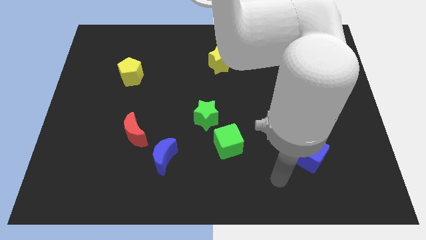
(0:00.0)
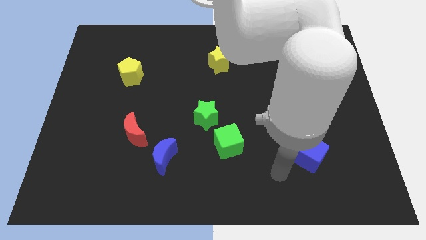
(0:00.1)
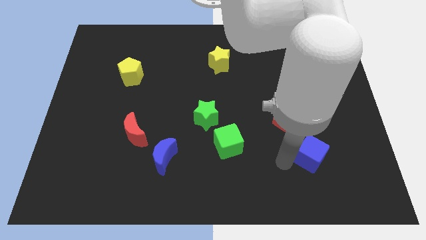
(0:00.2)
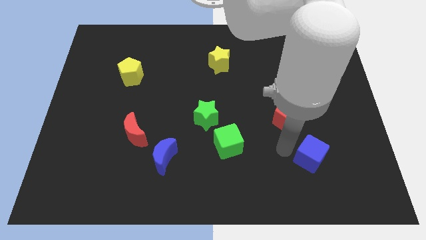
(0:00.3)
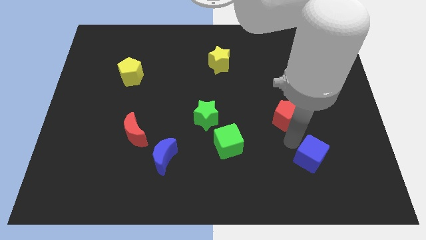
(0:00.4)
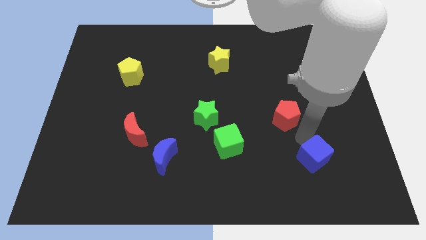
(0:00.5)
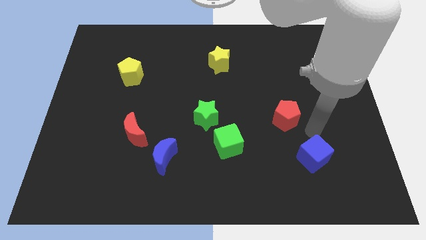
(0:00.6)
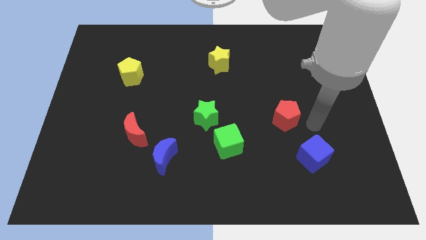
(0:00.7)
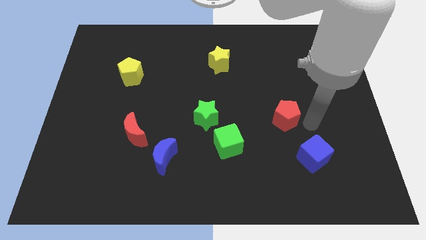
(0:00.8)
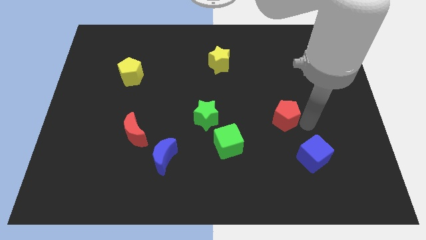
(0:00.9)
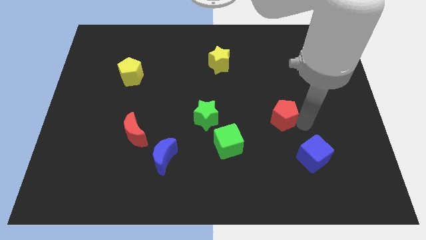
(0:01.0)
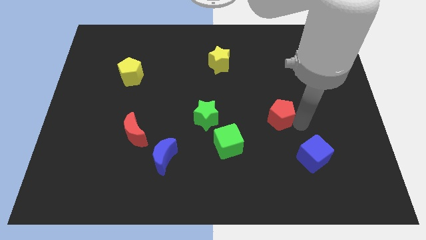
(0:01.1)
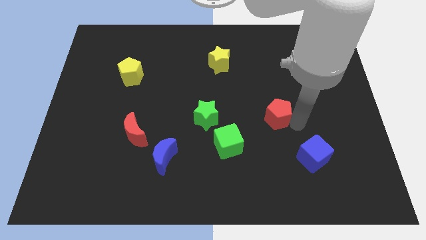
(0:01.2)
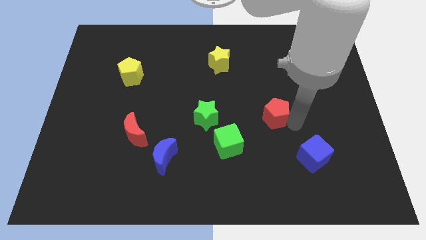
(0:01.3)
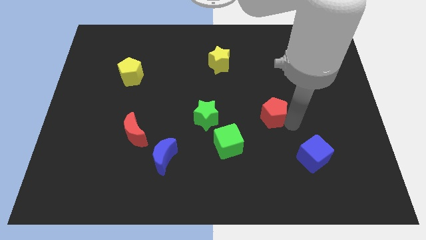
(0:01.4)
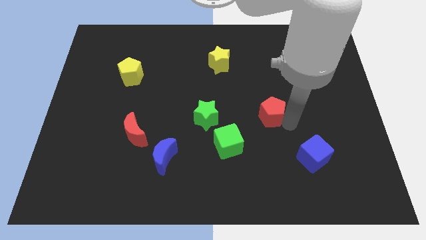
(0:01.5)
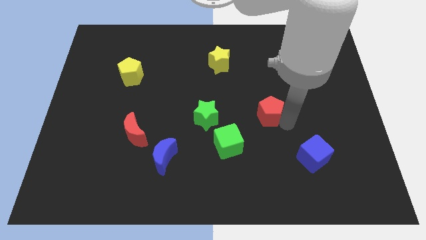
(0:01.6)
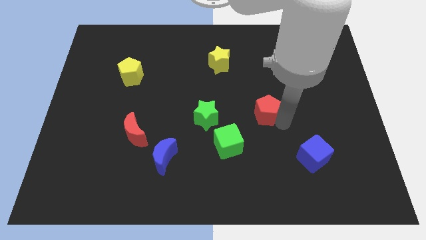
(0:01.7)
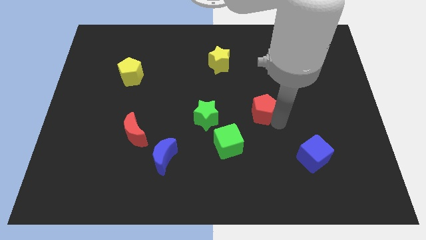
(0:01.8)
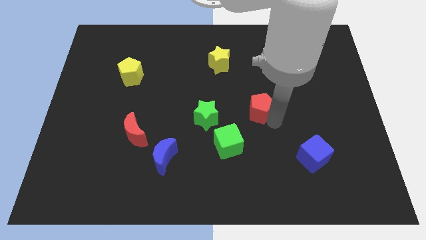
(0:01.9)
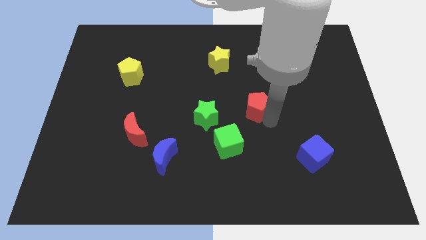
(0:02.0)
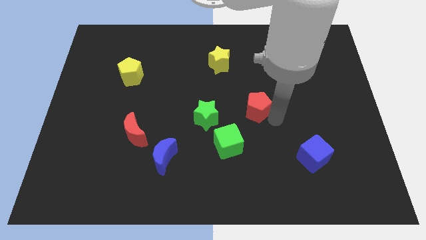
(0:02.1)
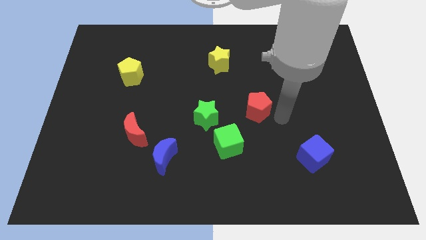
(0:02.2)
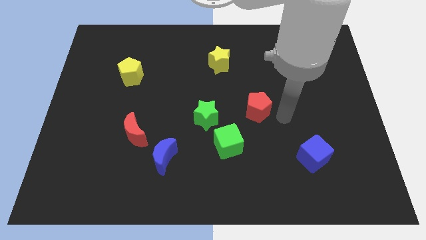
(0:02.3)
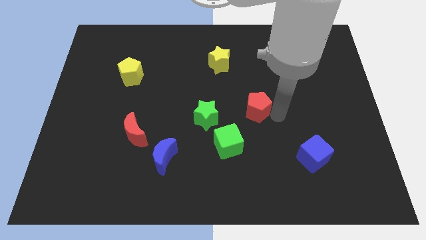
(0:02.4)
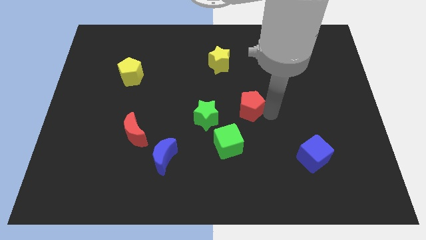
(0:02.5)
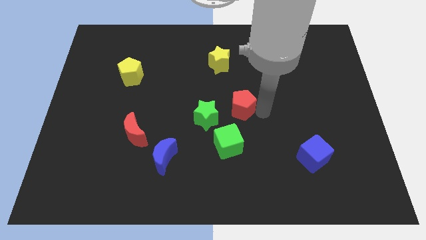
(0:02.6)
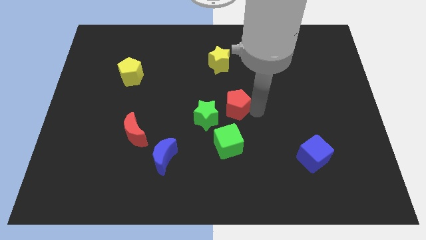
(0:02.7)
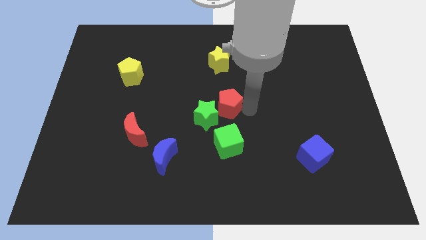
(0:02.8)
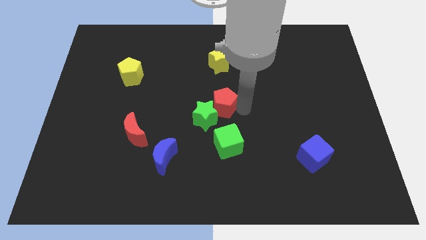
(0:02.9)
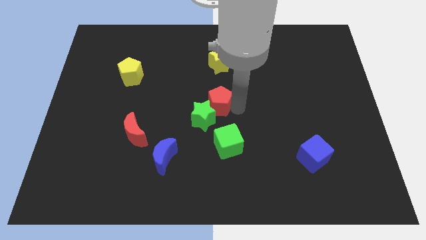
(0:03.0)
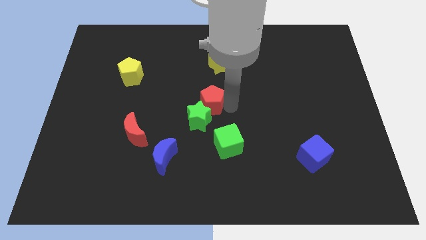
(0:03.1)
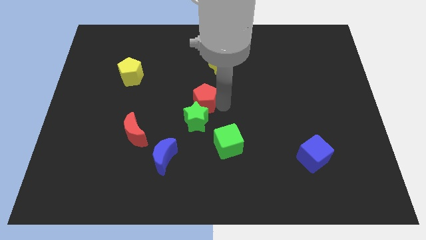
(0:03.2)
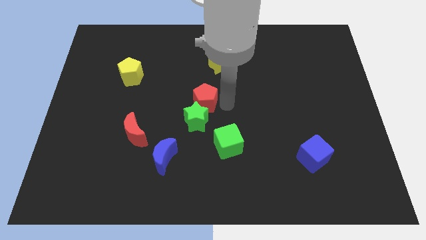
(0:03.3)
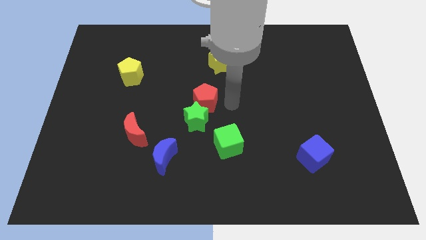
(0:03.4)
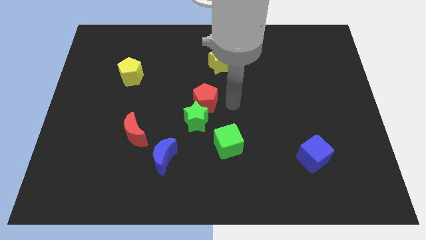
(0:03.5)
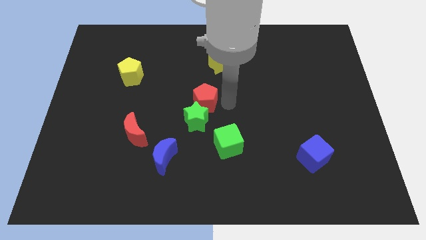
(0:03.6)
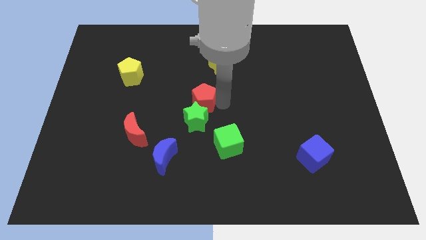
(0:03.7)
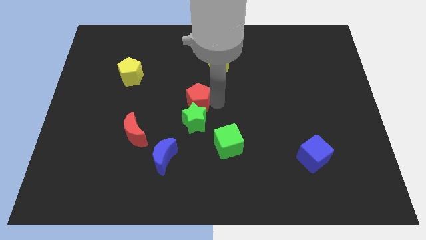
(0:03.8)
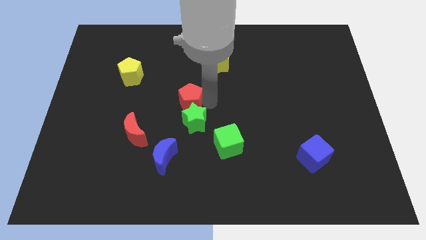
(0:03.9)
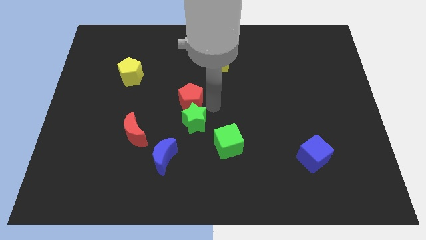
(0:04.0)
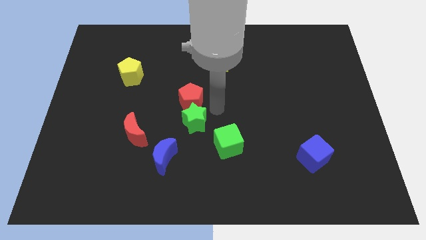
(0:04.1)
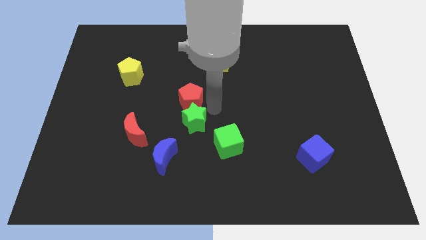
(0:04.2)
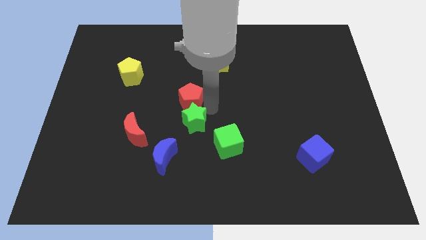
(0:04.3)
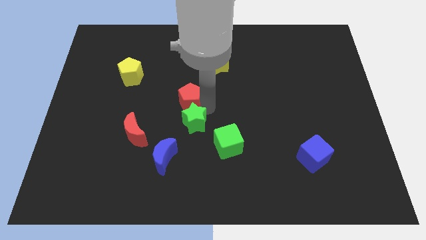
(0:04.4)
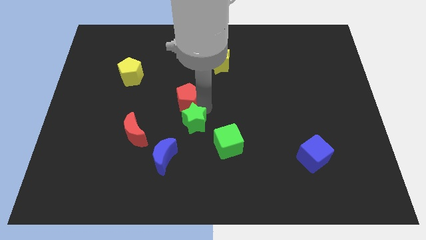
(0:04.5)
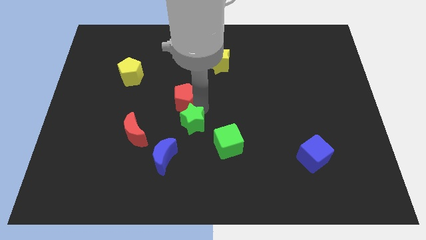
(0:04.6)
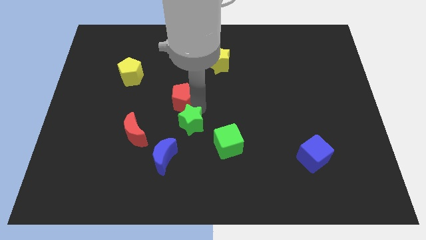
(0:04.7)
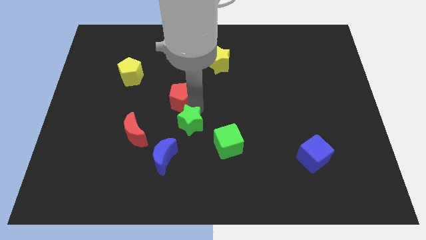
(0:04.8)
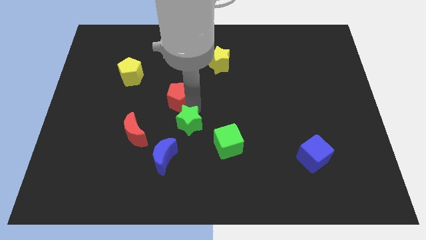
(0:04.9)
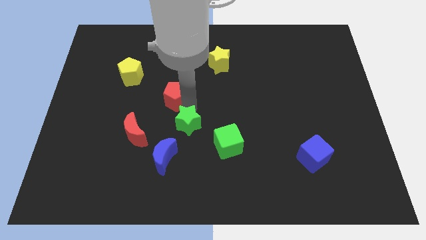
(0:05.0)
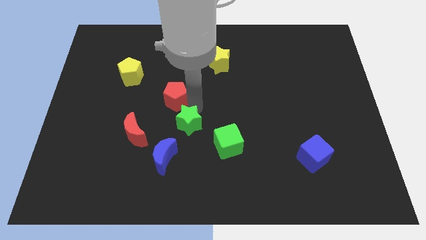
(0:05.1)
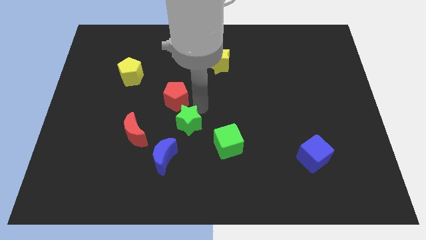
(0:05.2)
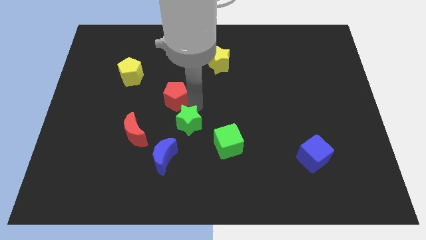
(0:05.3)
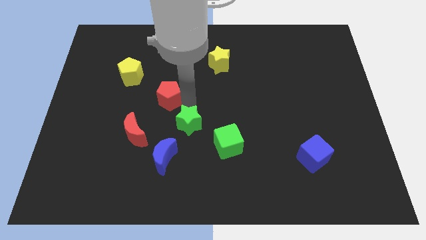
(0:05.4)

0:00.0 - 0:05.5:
slide the red pentagon diagonally down and to the right of the yellow pentagon

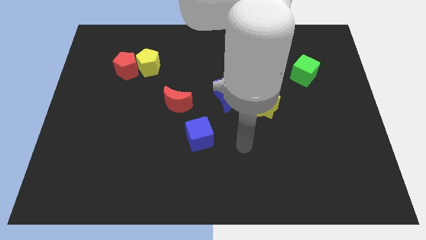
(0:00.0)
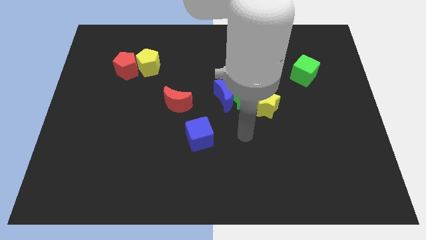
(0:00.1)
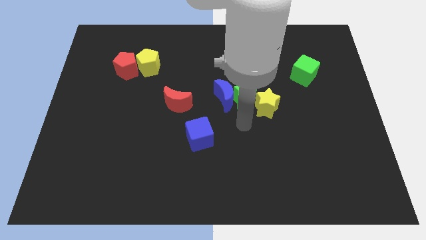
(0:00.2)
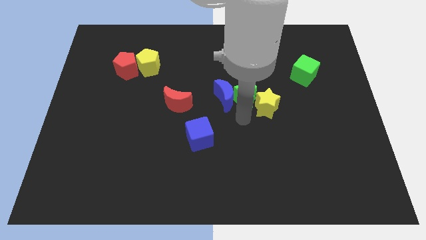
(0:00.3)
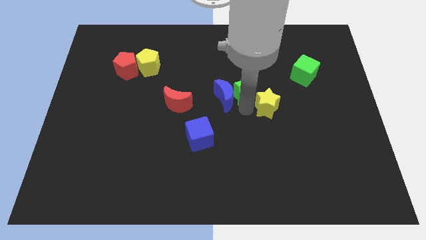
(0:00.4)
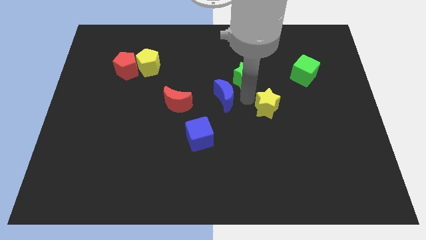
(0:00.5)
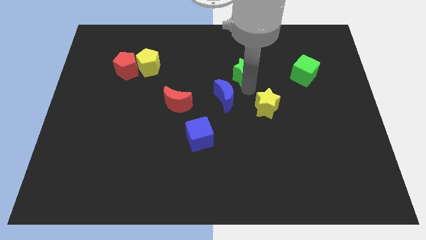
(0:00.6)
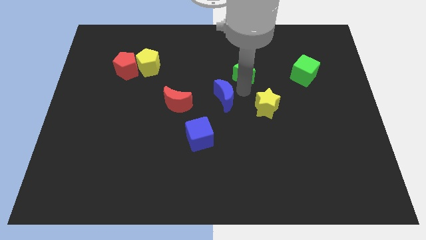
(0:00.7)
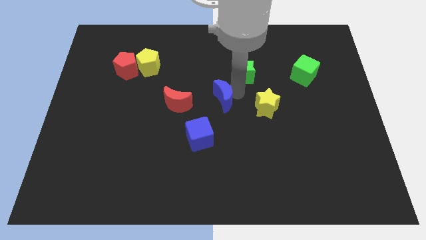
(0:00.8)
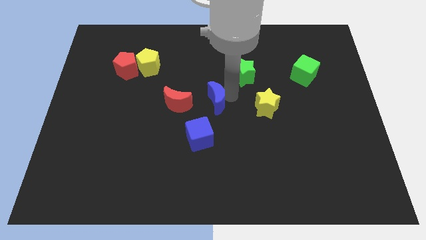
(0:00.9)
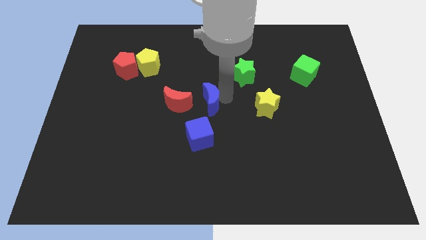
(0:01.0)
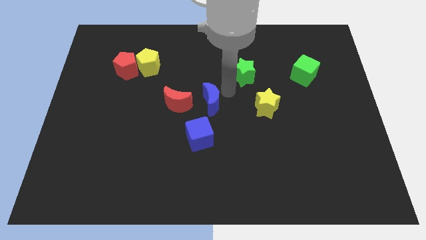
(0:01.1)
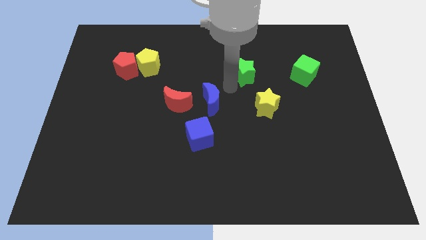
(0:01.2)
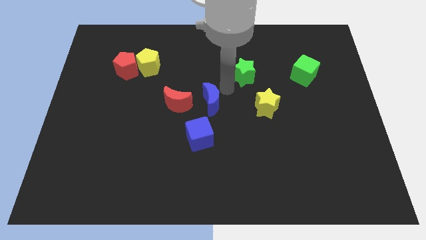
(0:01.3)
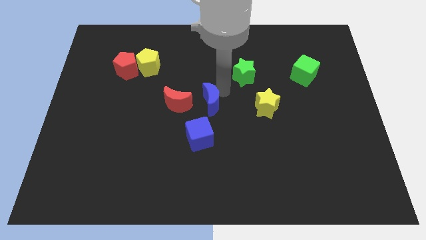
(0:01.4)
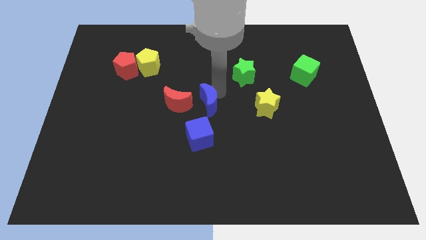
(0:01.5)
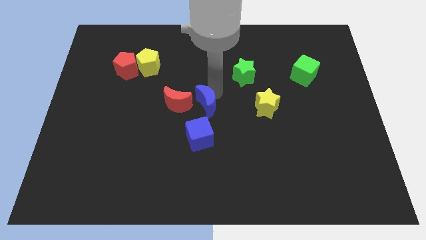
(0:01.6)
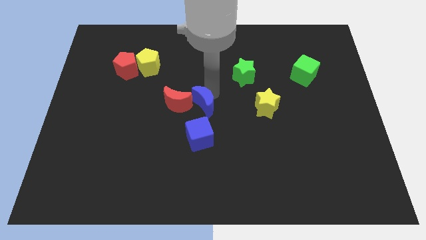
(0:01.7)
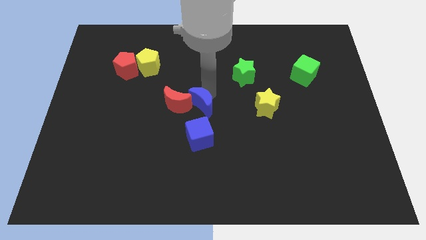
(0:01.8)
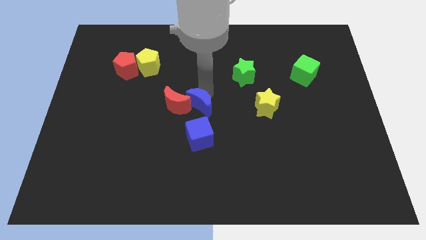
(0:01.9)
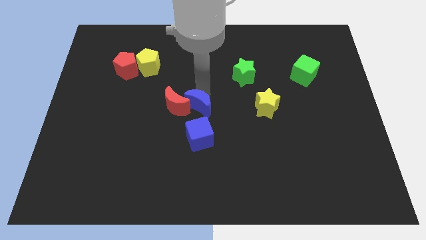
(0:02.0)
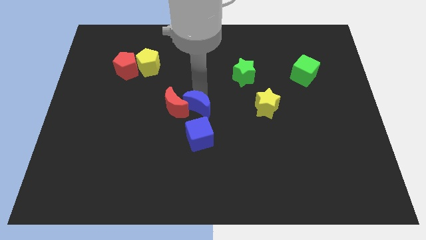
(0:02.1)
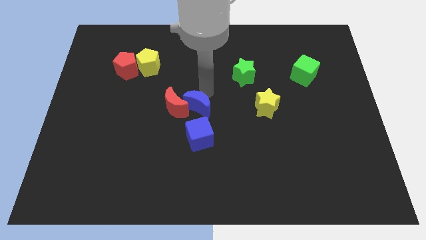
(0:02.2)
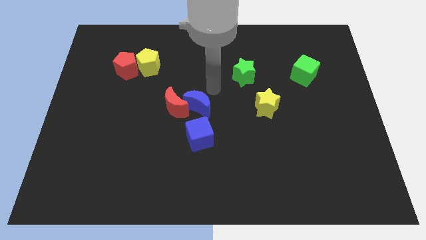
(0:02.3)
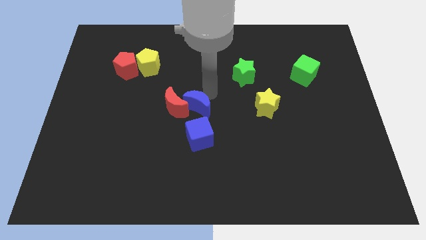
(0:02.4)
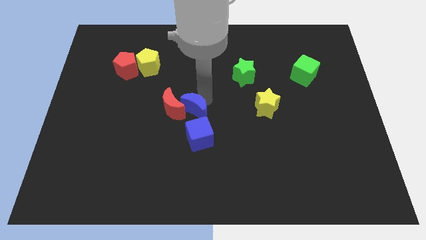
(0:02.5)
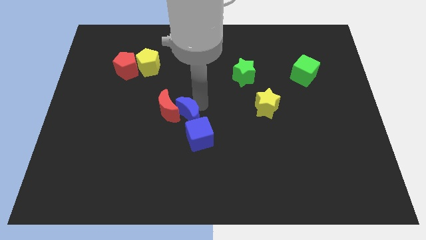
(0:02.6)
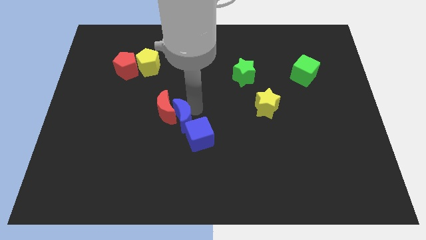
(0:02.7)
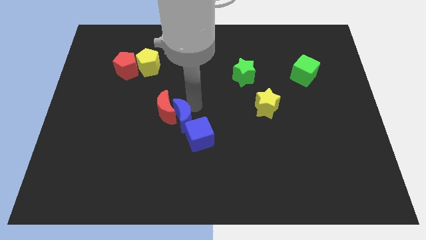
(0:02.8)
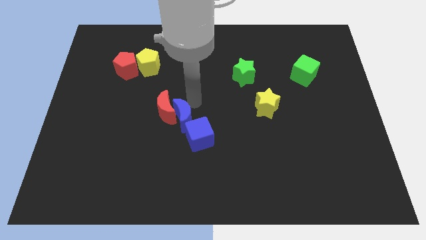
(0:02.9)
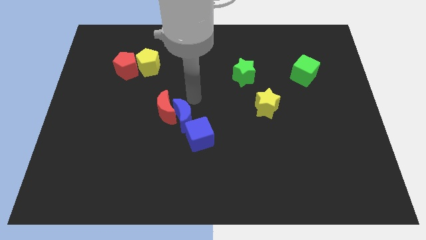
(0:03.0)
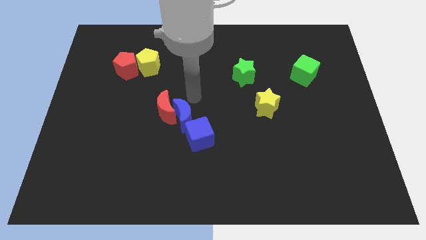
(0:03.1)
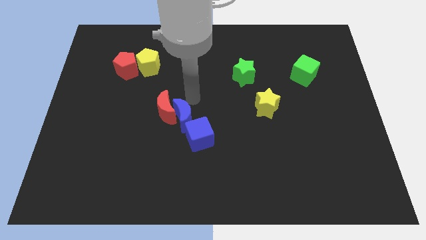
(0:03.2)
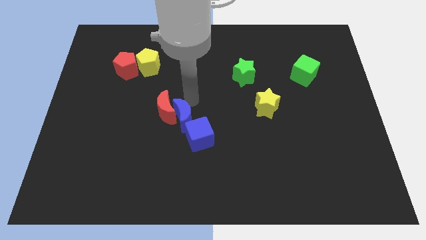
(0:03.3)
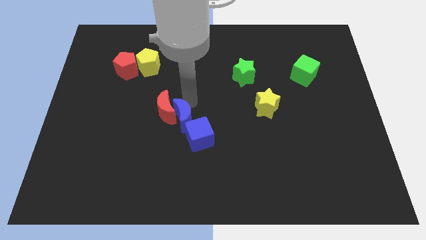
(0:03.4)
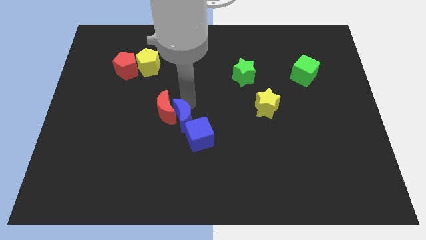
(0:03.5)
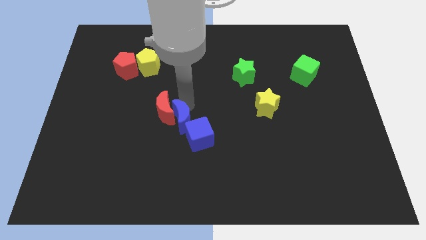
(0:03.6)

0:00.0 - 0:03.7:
push the blue moon left of the blue cube
